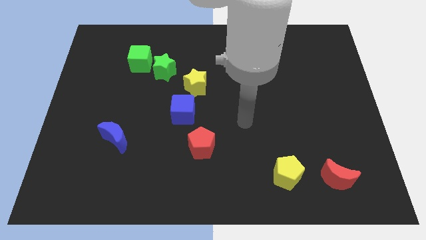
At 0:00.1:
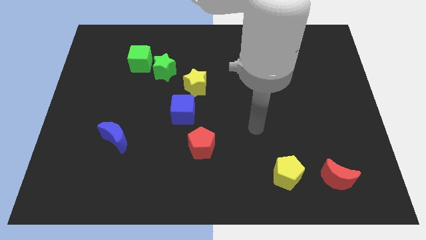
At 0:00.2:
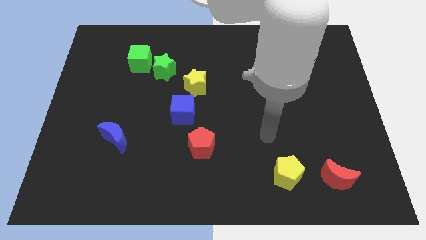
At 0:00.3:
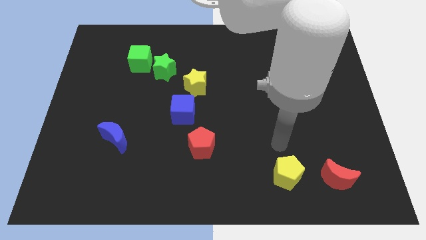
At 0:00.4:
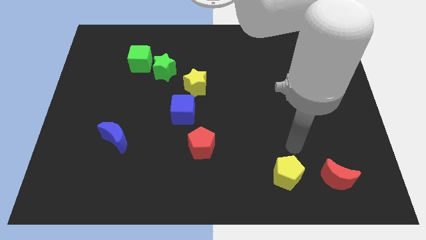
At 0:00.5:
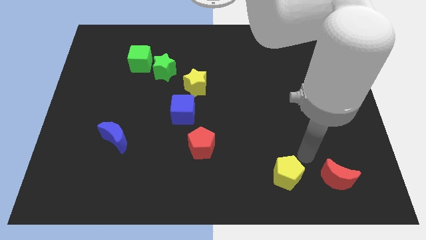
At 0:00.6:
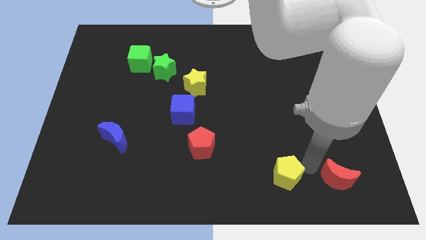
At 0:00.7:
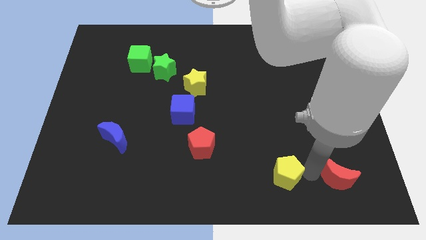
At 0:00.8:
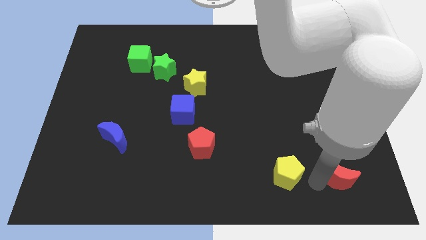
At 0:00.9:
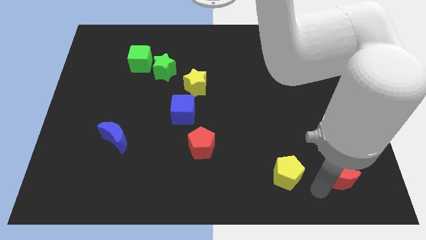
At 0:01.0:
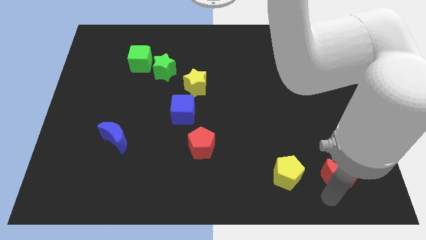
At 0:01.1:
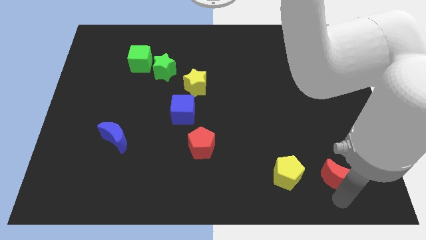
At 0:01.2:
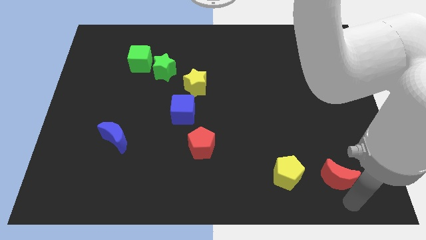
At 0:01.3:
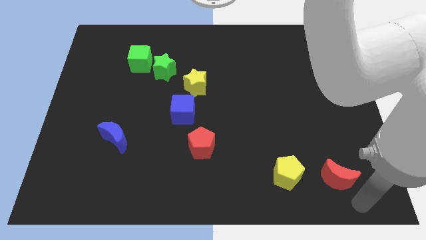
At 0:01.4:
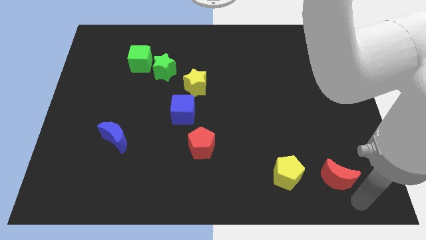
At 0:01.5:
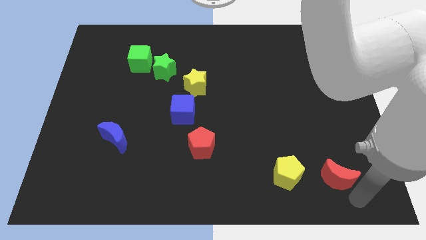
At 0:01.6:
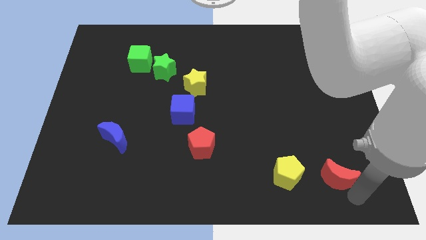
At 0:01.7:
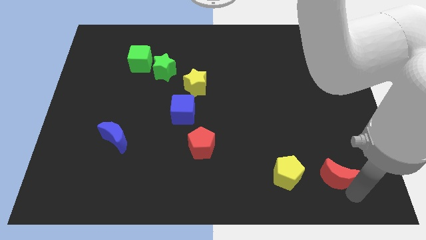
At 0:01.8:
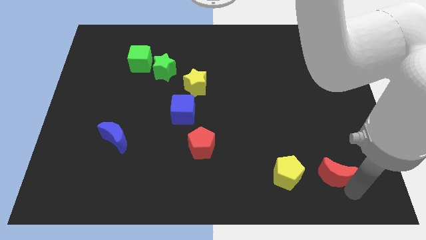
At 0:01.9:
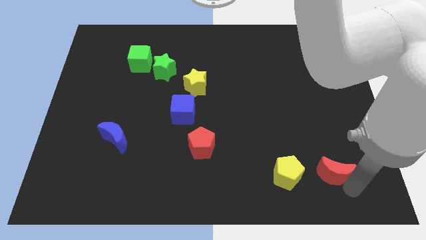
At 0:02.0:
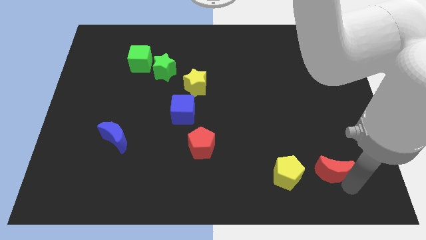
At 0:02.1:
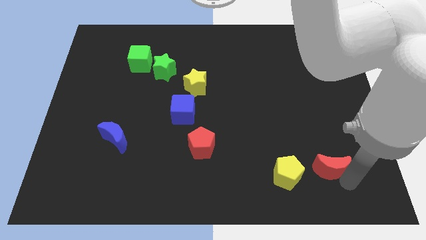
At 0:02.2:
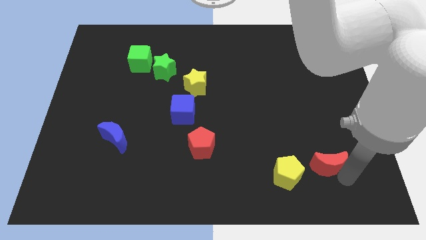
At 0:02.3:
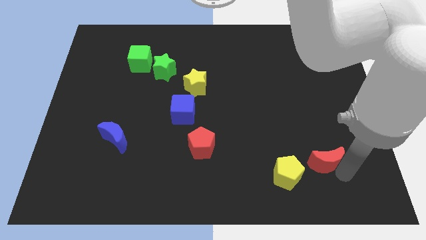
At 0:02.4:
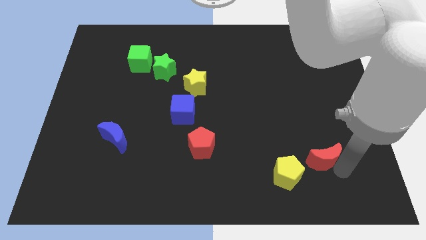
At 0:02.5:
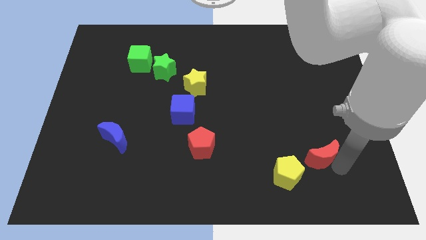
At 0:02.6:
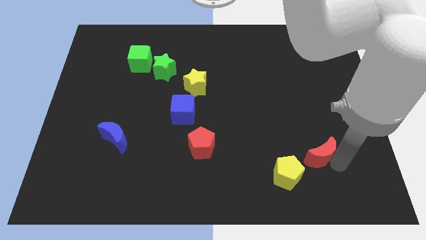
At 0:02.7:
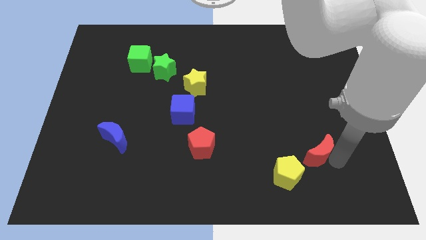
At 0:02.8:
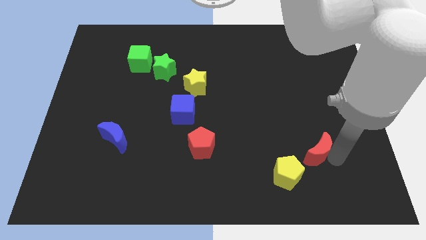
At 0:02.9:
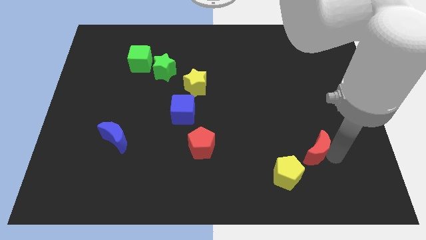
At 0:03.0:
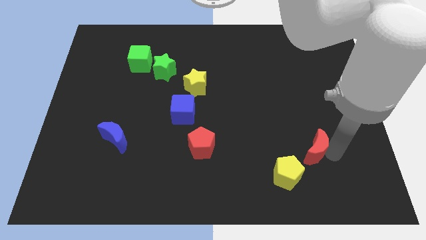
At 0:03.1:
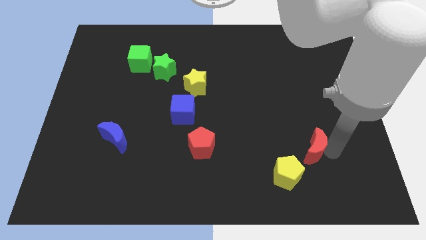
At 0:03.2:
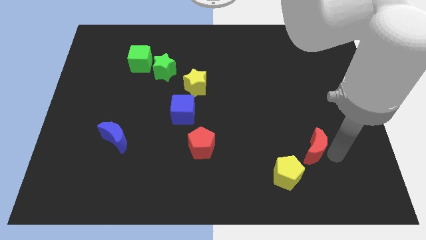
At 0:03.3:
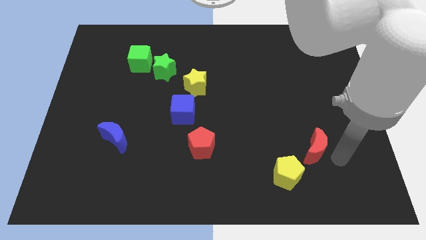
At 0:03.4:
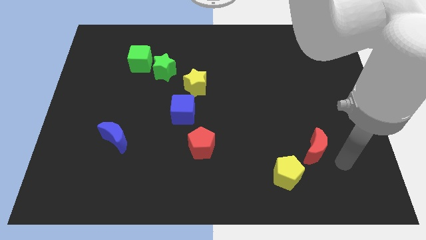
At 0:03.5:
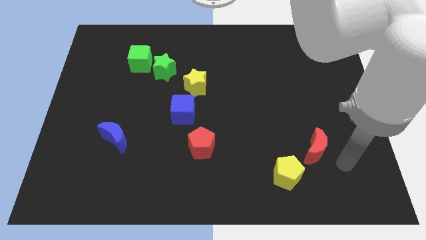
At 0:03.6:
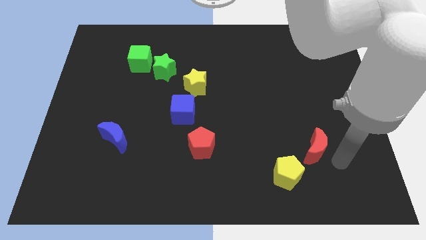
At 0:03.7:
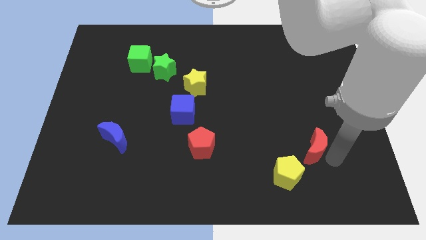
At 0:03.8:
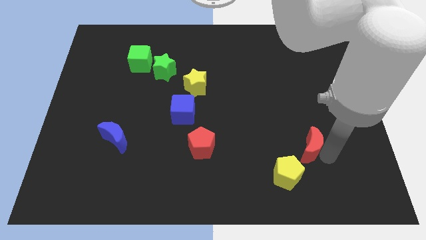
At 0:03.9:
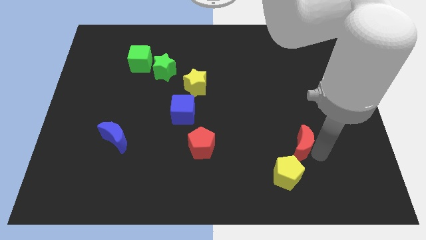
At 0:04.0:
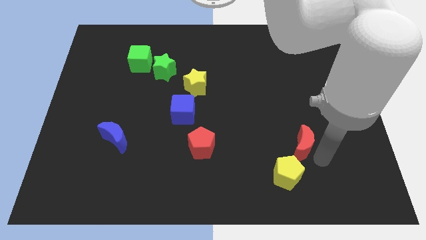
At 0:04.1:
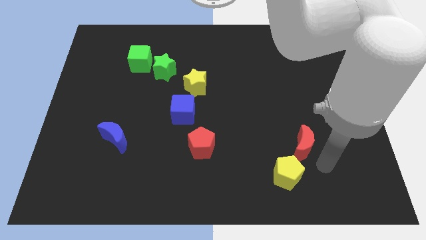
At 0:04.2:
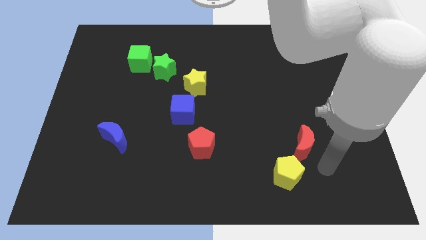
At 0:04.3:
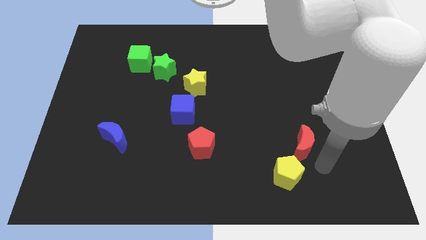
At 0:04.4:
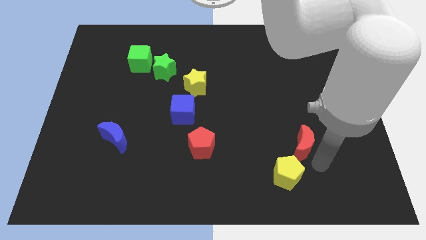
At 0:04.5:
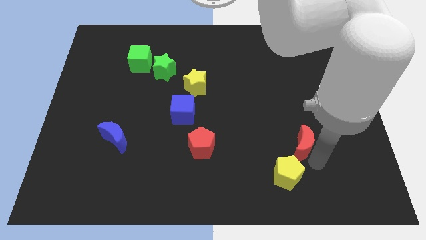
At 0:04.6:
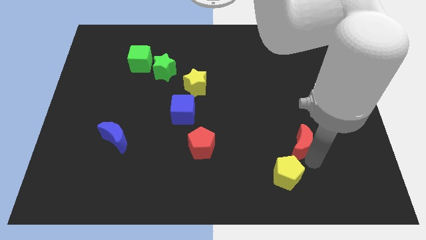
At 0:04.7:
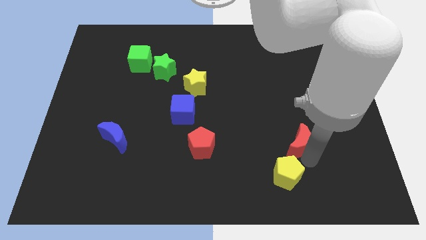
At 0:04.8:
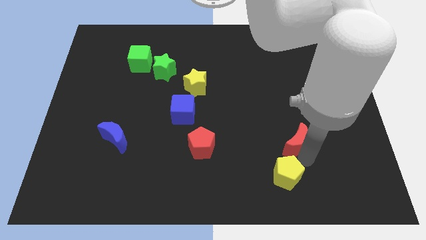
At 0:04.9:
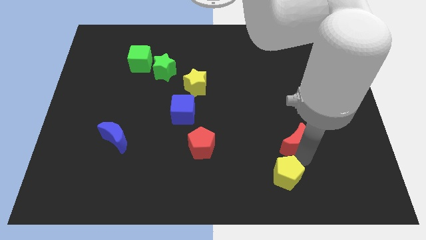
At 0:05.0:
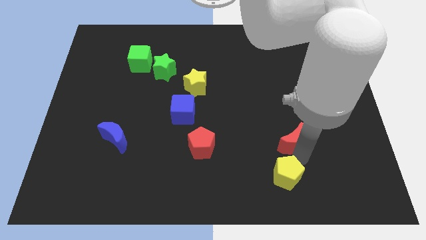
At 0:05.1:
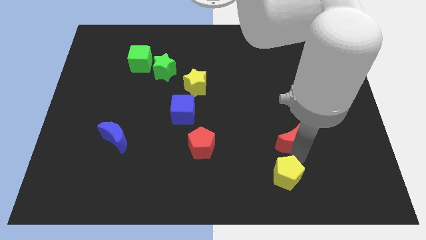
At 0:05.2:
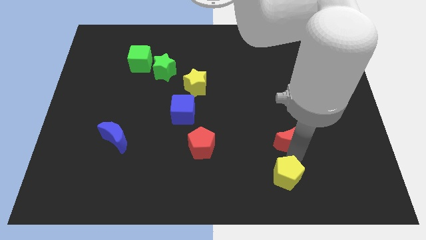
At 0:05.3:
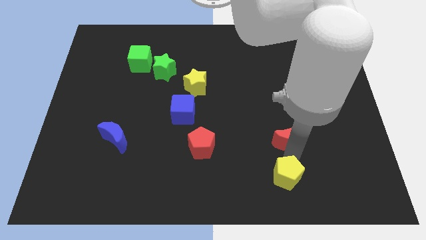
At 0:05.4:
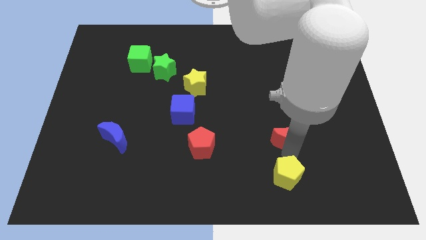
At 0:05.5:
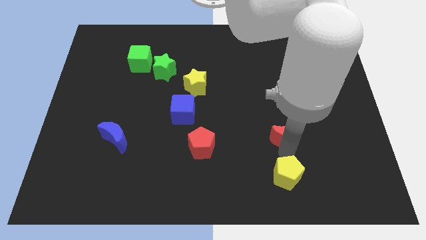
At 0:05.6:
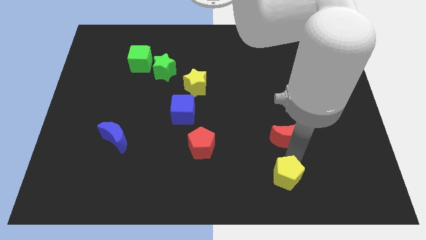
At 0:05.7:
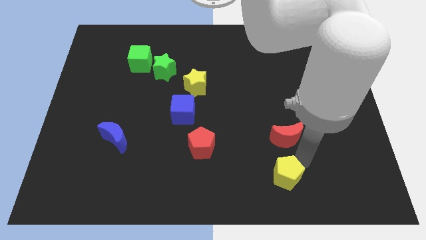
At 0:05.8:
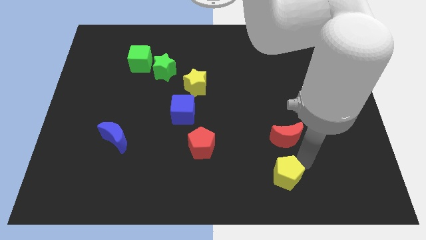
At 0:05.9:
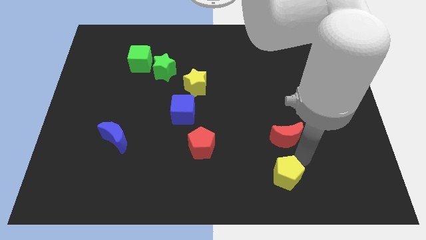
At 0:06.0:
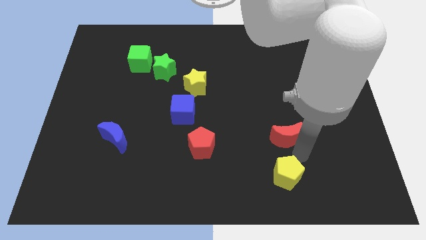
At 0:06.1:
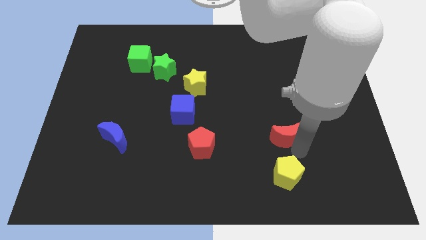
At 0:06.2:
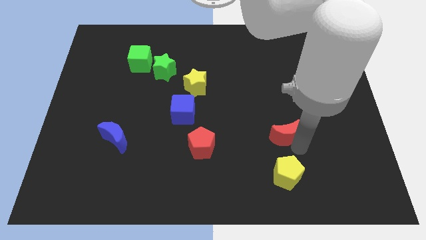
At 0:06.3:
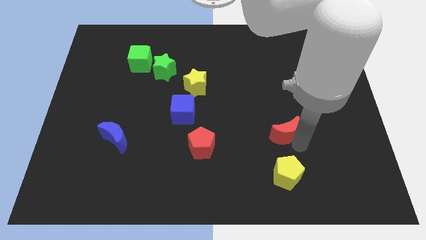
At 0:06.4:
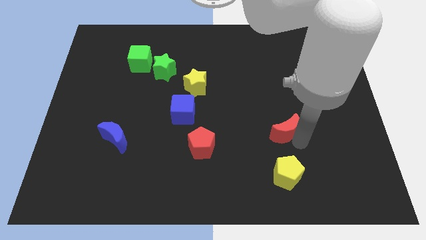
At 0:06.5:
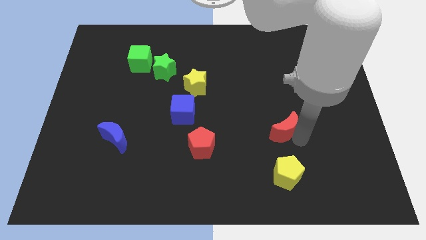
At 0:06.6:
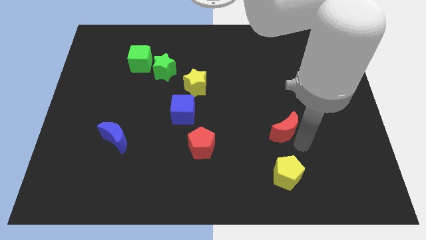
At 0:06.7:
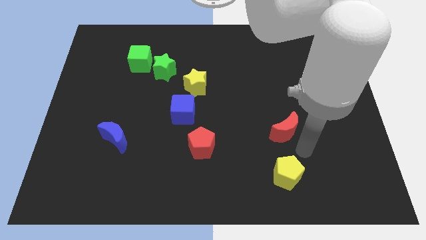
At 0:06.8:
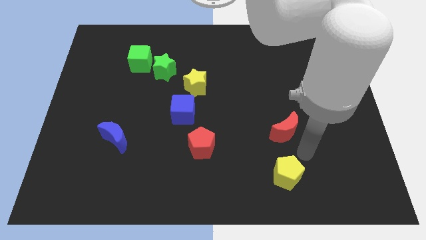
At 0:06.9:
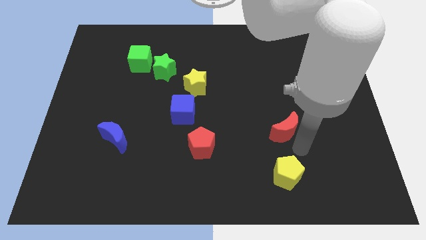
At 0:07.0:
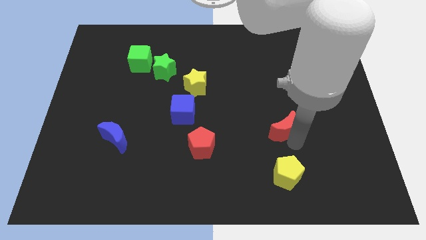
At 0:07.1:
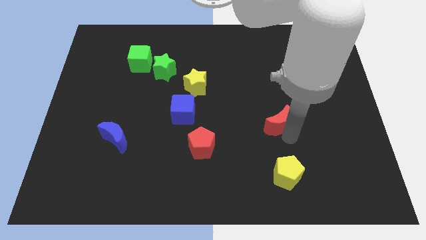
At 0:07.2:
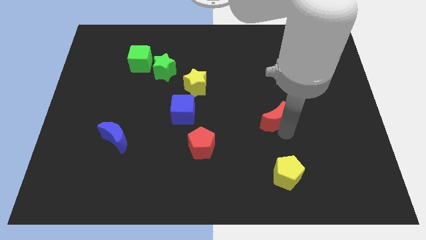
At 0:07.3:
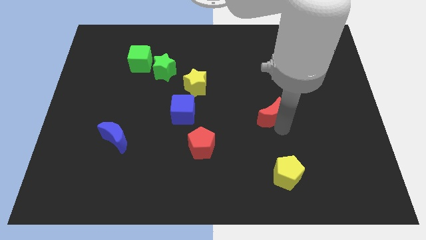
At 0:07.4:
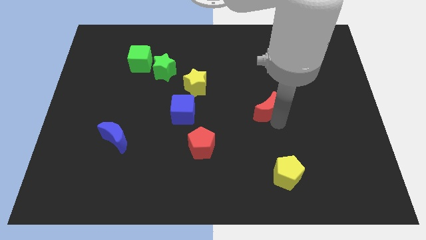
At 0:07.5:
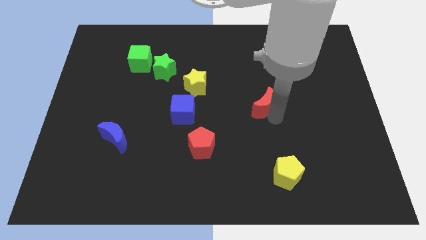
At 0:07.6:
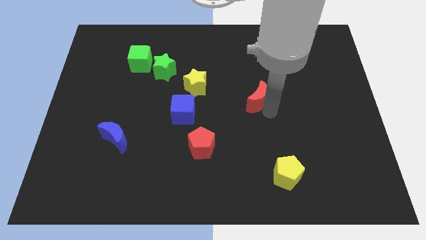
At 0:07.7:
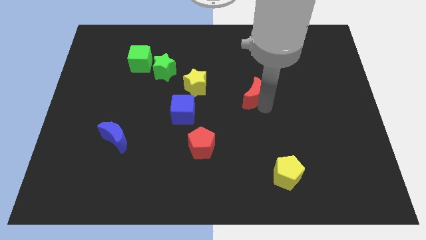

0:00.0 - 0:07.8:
slide the red moon right of the yellow star
